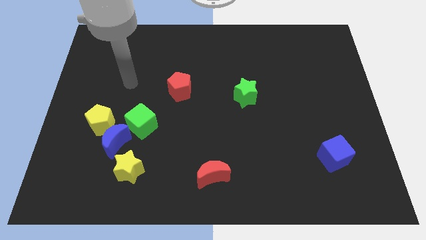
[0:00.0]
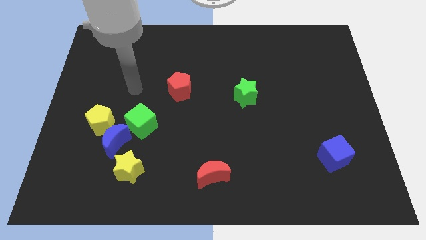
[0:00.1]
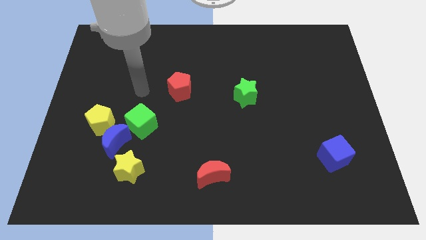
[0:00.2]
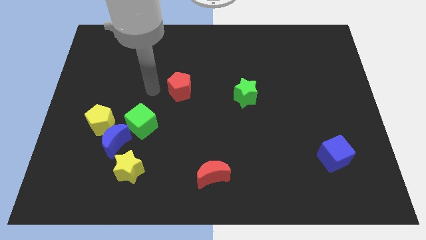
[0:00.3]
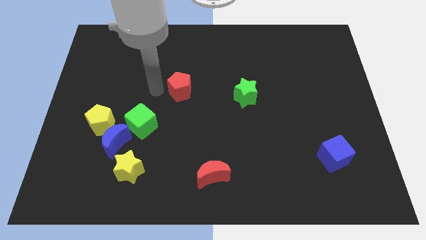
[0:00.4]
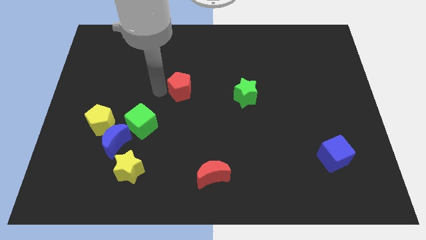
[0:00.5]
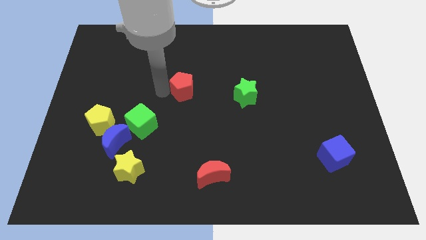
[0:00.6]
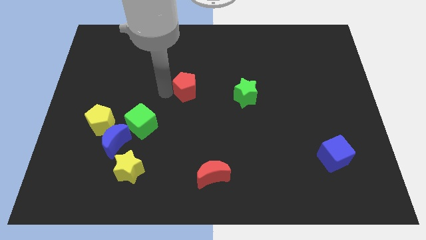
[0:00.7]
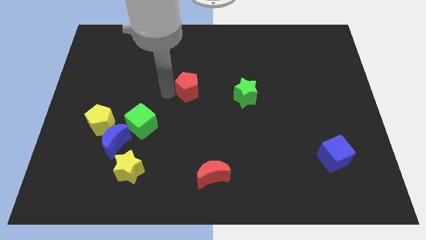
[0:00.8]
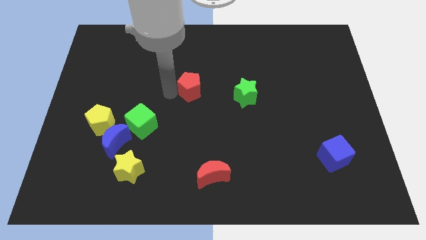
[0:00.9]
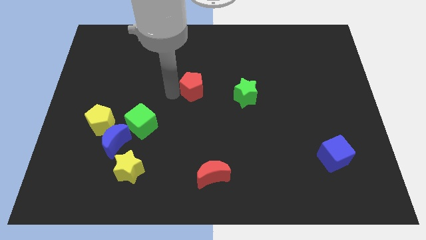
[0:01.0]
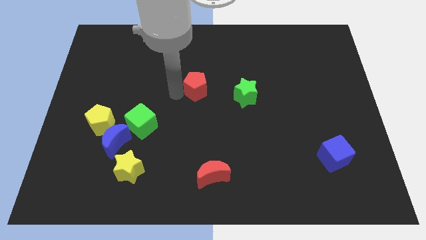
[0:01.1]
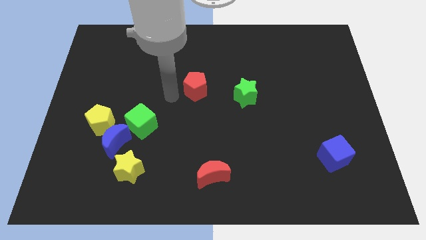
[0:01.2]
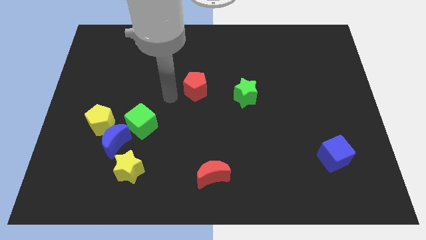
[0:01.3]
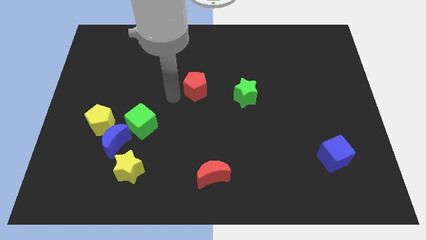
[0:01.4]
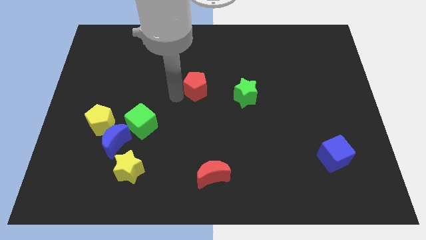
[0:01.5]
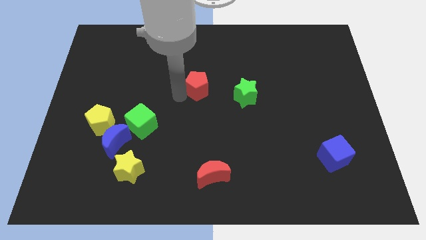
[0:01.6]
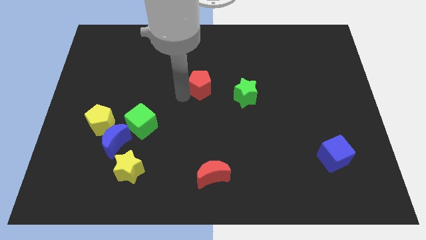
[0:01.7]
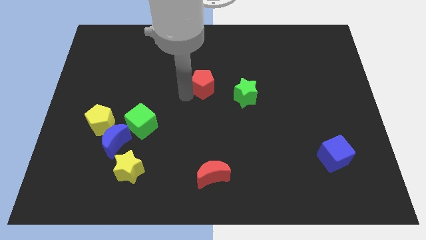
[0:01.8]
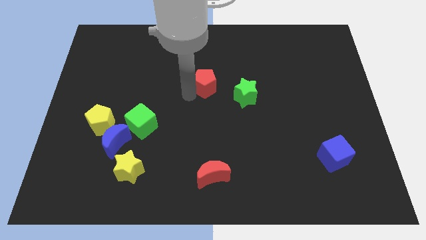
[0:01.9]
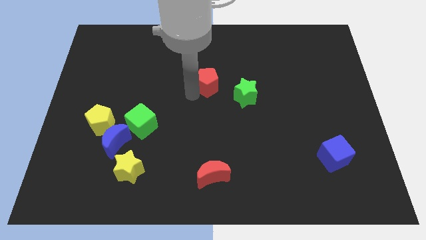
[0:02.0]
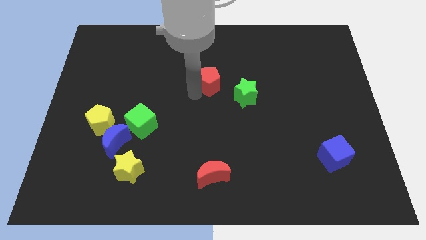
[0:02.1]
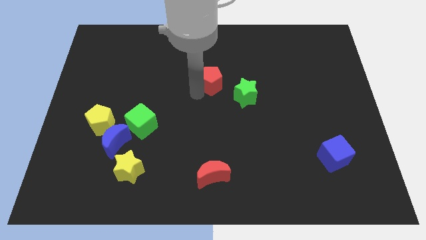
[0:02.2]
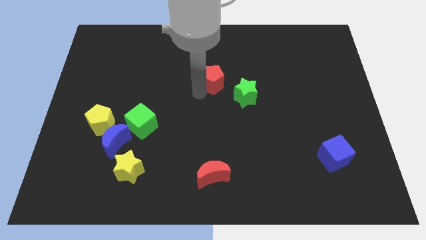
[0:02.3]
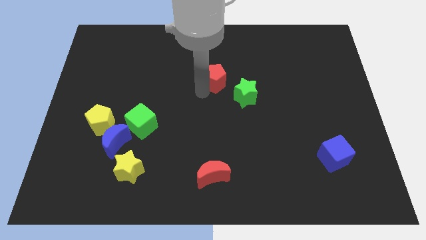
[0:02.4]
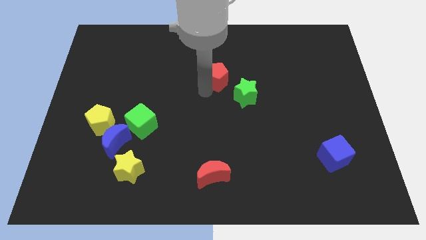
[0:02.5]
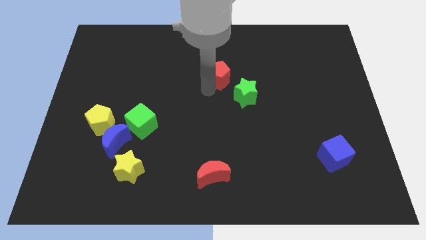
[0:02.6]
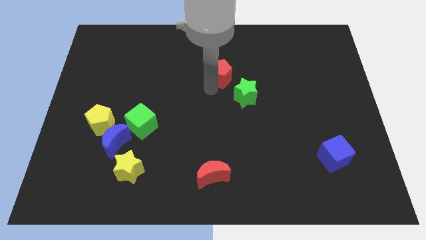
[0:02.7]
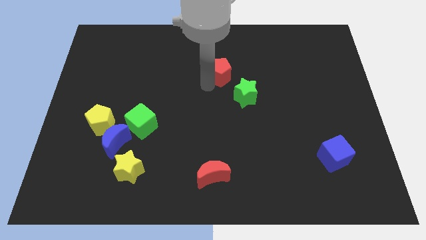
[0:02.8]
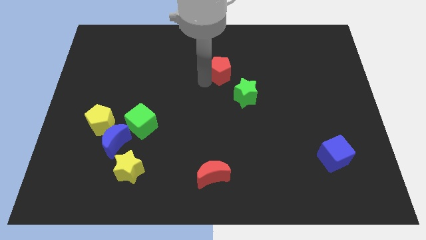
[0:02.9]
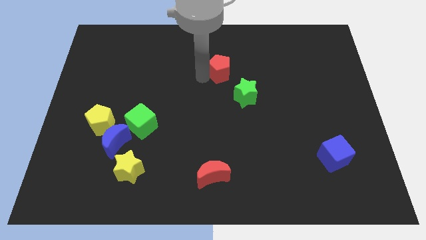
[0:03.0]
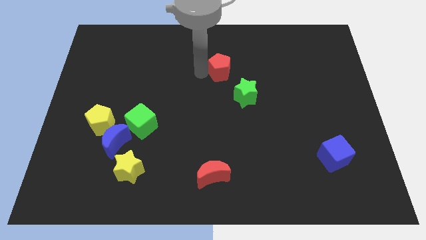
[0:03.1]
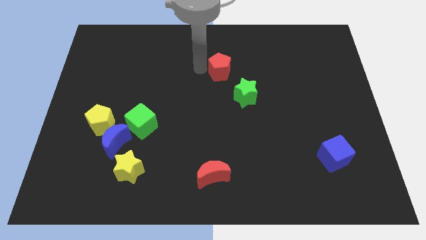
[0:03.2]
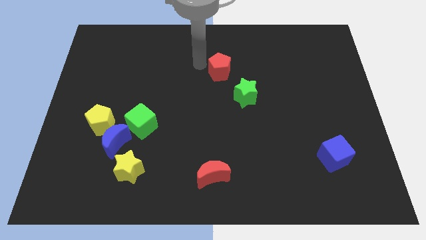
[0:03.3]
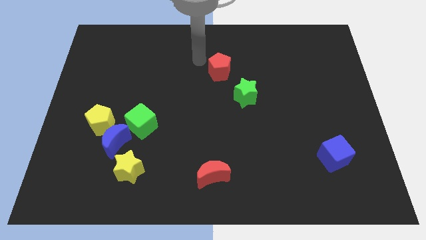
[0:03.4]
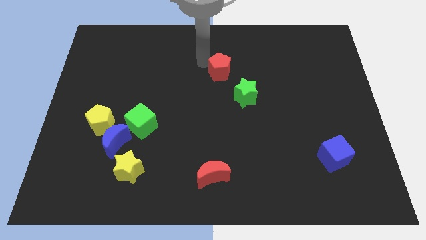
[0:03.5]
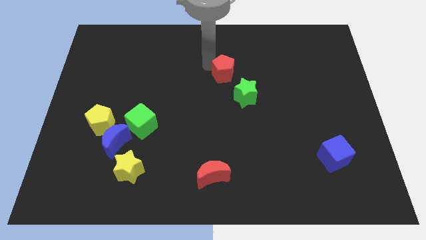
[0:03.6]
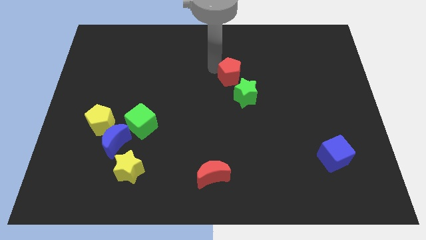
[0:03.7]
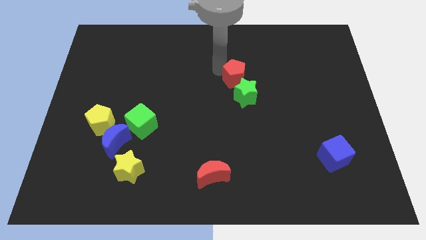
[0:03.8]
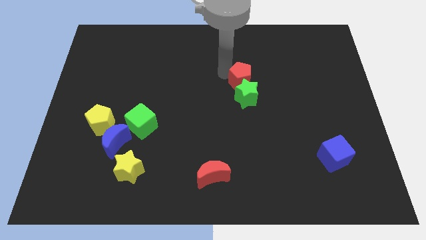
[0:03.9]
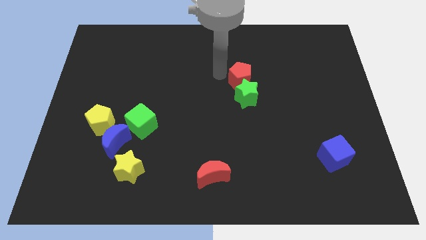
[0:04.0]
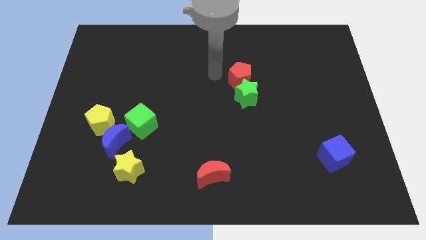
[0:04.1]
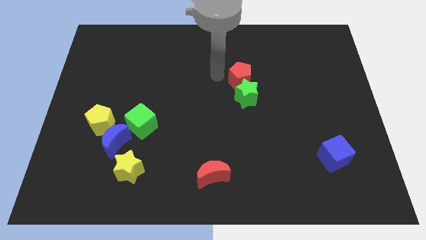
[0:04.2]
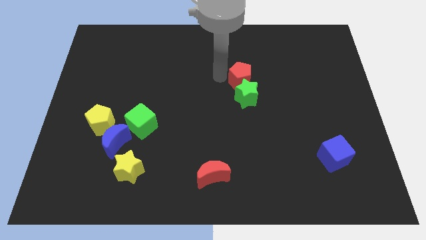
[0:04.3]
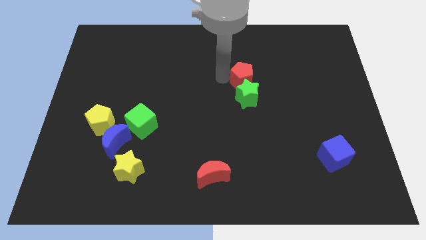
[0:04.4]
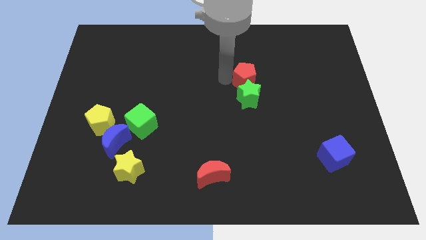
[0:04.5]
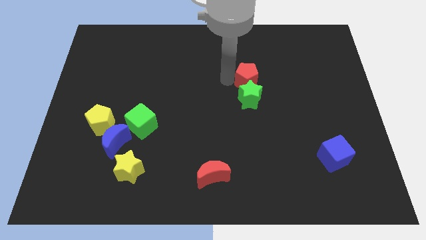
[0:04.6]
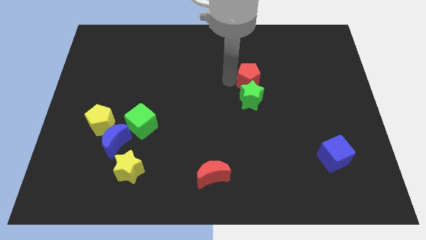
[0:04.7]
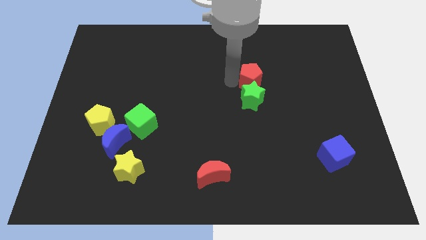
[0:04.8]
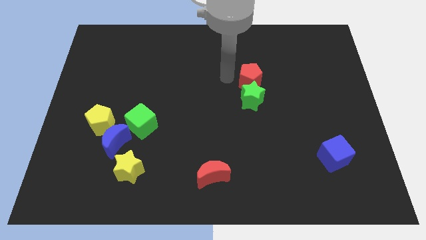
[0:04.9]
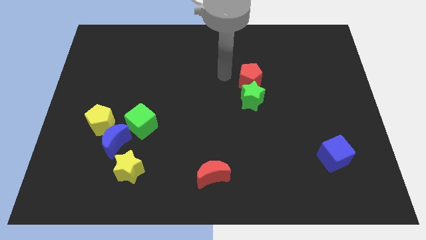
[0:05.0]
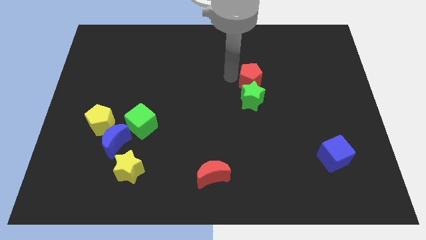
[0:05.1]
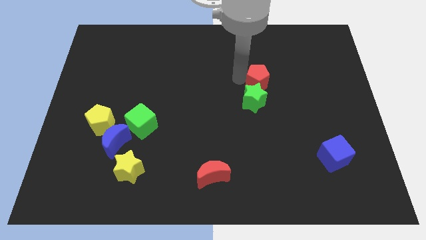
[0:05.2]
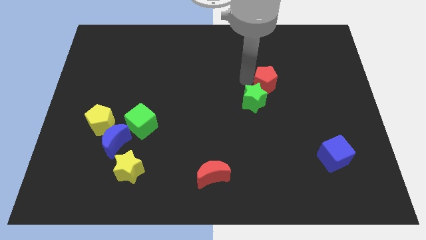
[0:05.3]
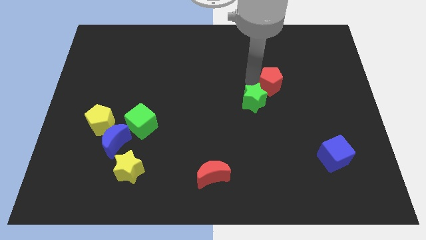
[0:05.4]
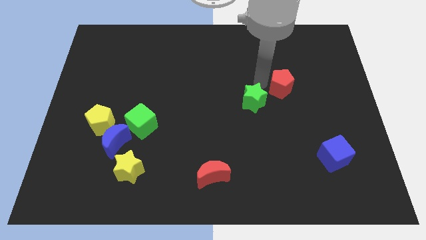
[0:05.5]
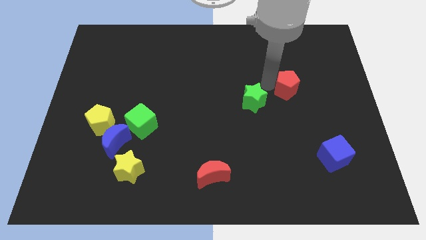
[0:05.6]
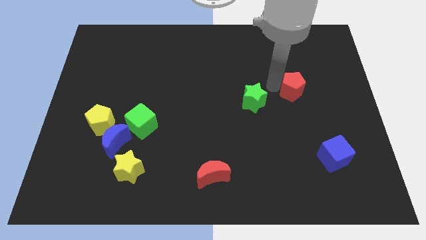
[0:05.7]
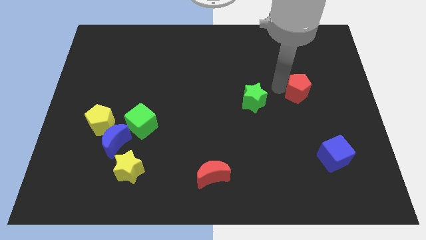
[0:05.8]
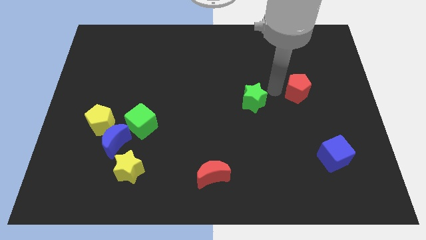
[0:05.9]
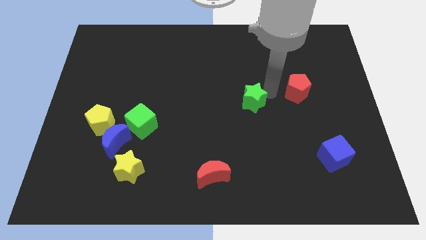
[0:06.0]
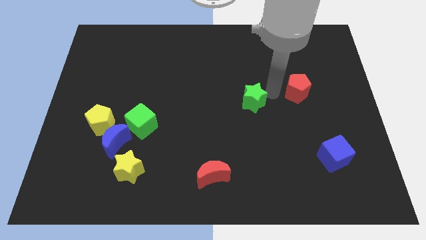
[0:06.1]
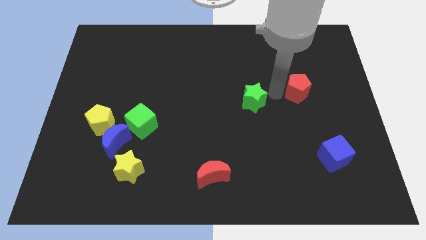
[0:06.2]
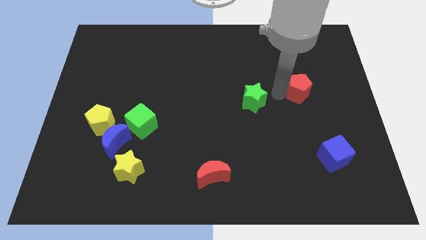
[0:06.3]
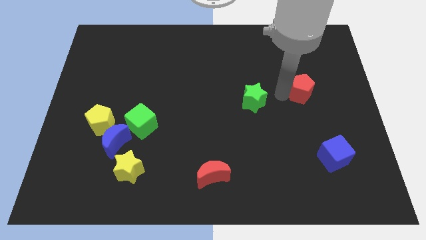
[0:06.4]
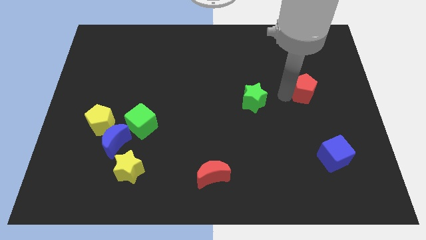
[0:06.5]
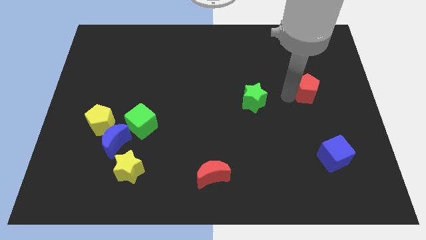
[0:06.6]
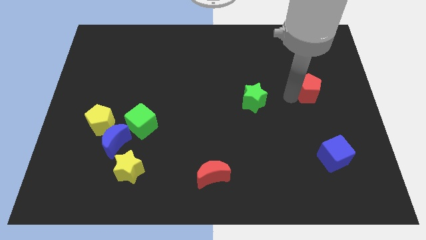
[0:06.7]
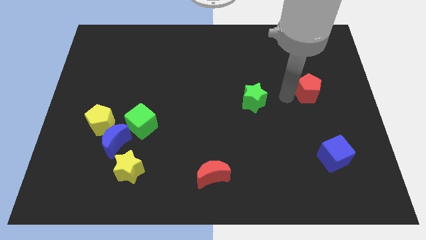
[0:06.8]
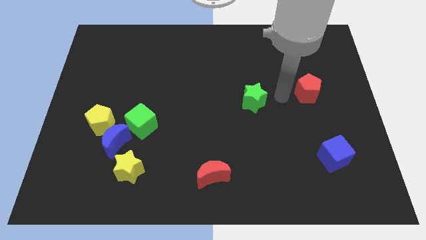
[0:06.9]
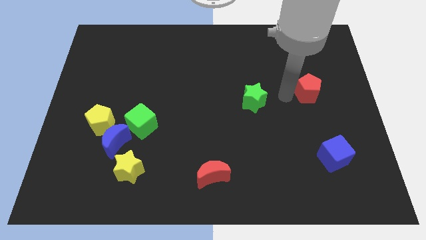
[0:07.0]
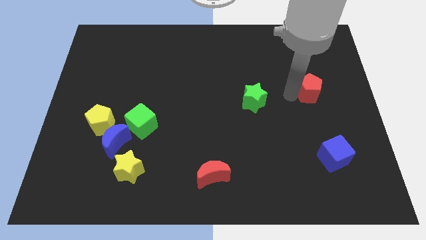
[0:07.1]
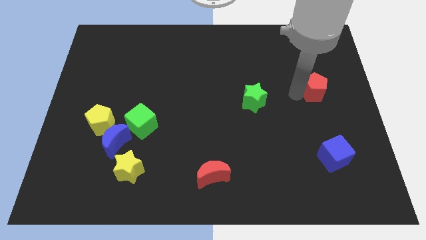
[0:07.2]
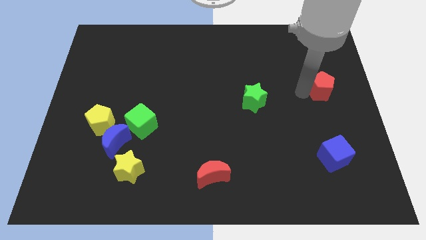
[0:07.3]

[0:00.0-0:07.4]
move the red pentagon to the right side
